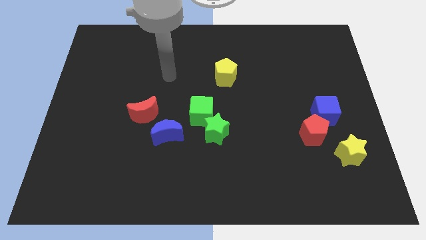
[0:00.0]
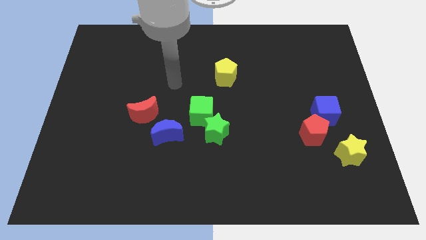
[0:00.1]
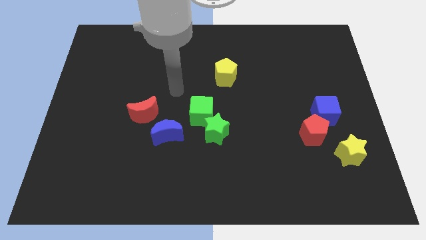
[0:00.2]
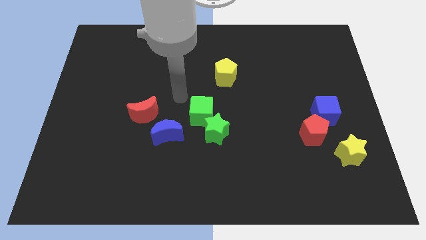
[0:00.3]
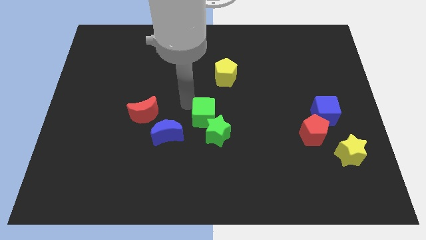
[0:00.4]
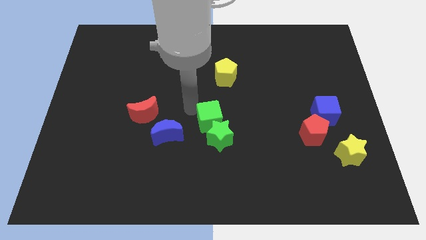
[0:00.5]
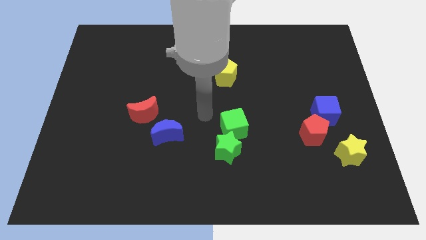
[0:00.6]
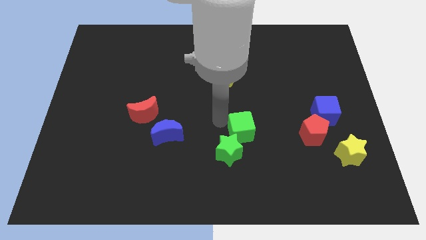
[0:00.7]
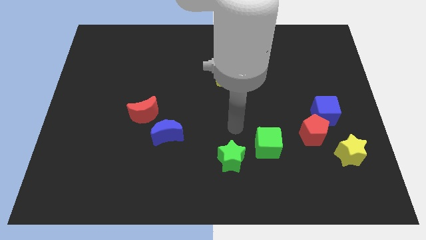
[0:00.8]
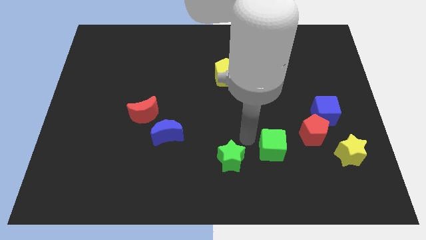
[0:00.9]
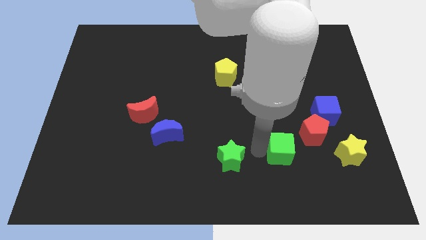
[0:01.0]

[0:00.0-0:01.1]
separate the green star from the green cube

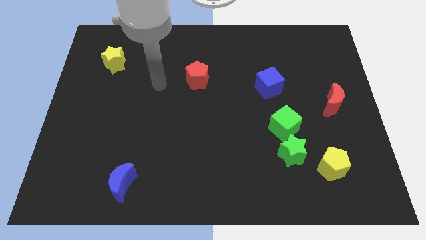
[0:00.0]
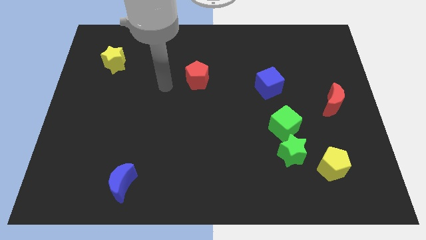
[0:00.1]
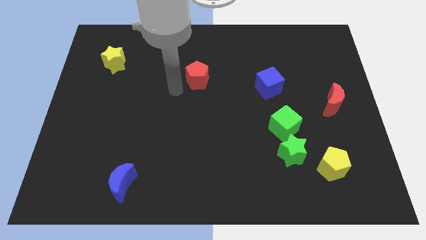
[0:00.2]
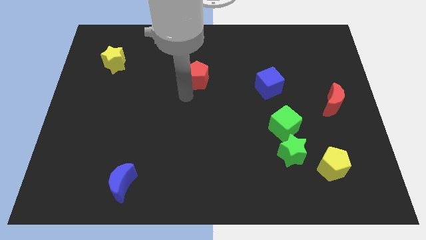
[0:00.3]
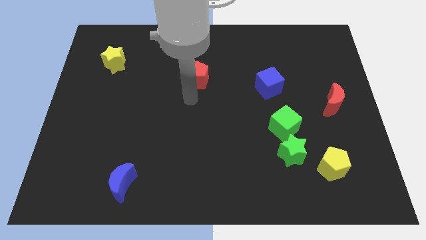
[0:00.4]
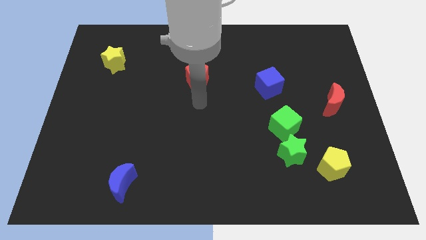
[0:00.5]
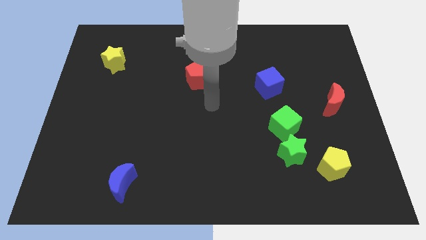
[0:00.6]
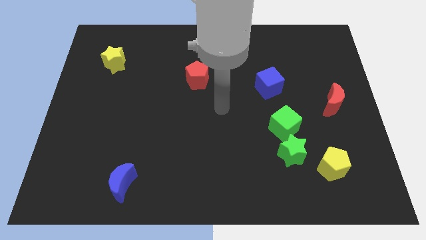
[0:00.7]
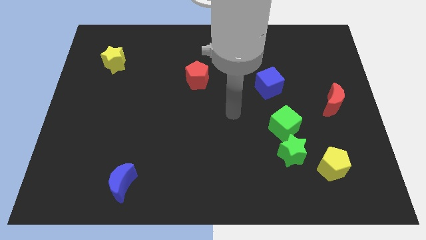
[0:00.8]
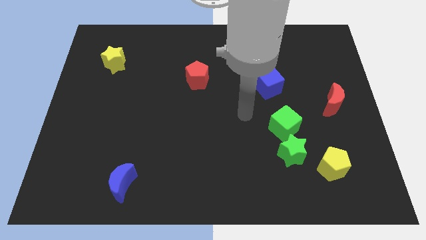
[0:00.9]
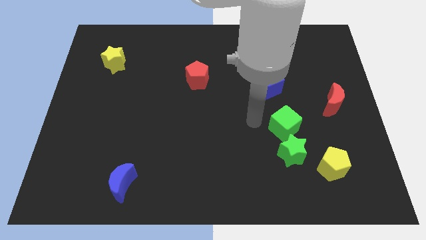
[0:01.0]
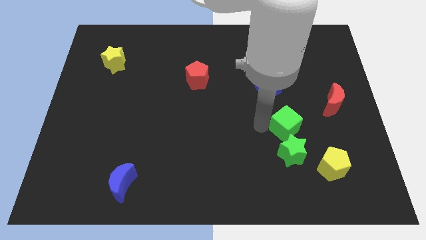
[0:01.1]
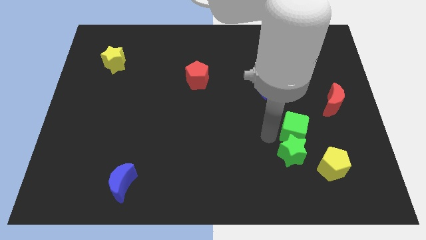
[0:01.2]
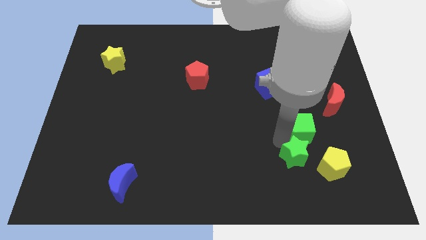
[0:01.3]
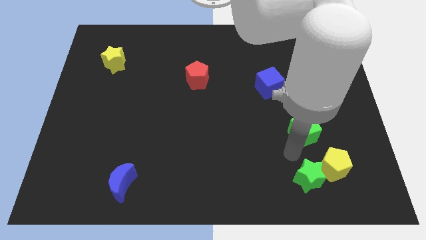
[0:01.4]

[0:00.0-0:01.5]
pull the green cube apart from the green star

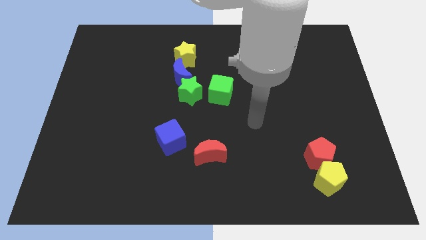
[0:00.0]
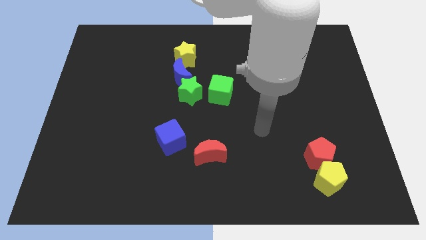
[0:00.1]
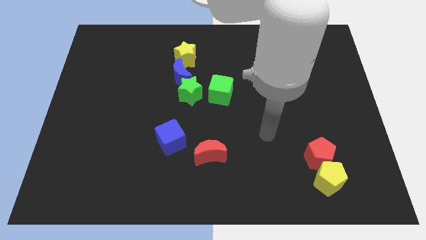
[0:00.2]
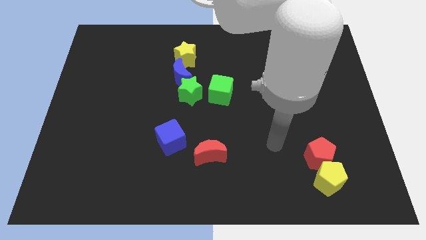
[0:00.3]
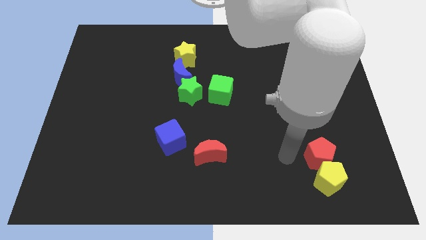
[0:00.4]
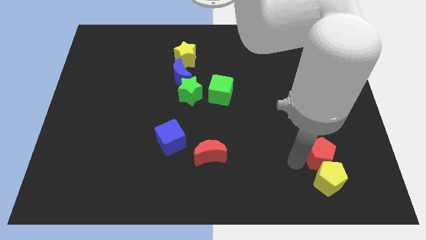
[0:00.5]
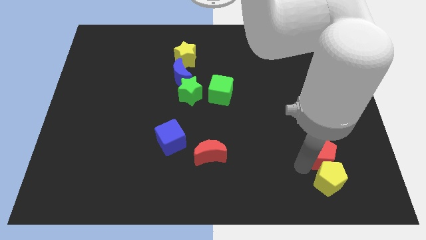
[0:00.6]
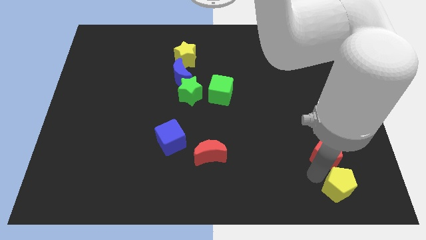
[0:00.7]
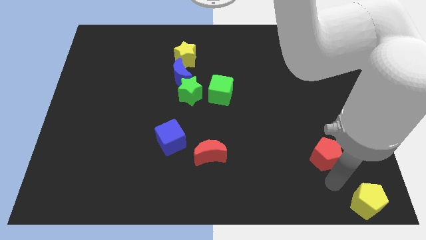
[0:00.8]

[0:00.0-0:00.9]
move the red pentagon away from the yellow pentagon

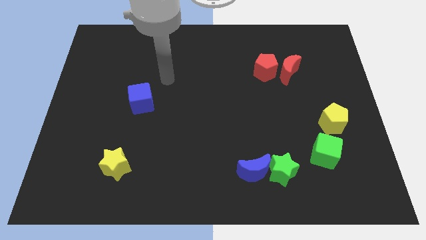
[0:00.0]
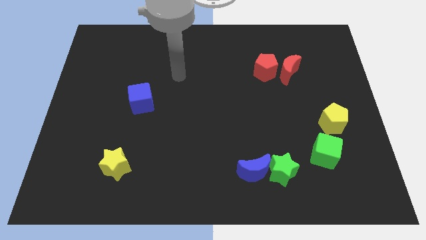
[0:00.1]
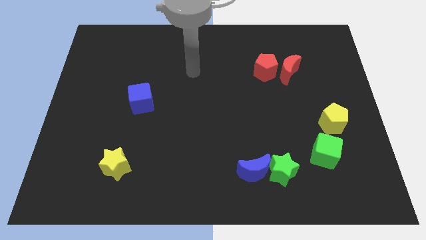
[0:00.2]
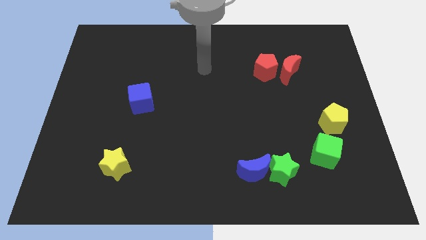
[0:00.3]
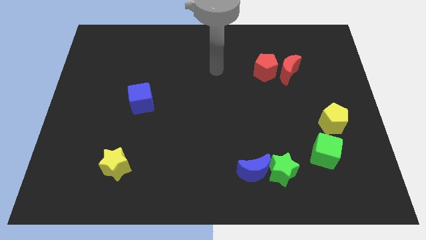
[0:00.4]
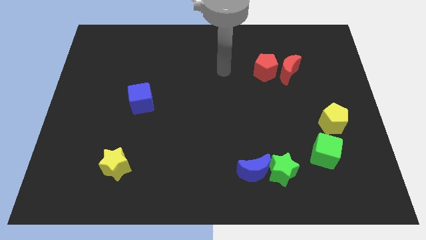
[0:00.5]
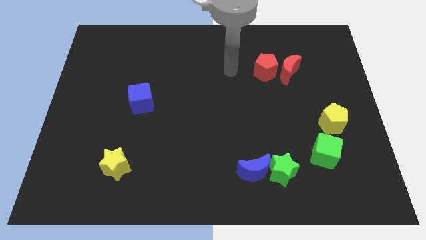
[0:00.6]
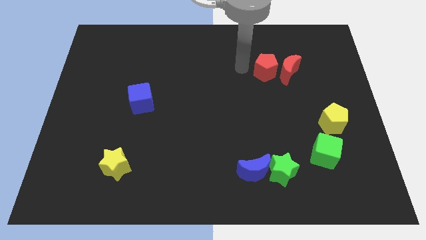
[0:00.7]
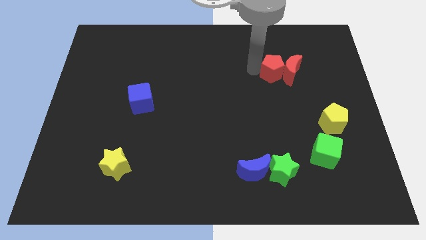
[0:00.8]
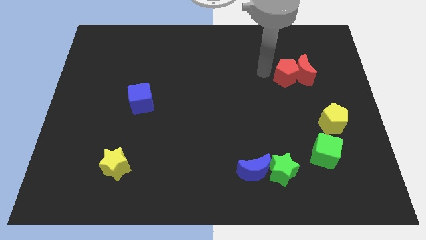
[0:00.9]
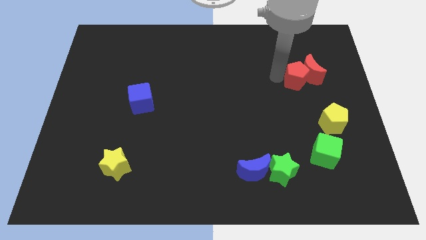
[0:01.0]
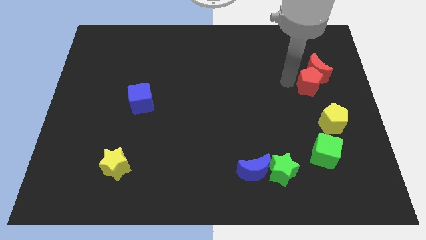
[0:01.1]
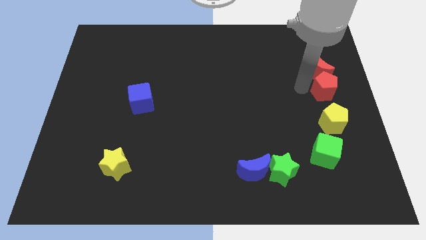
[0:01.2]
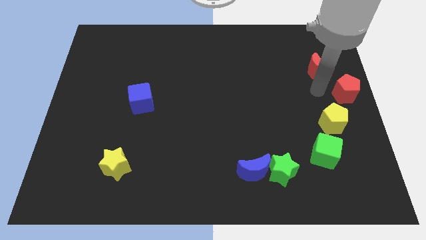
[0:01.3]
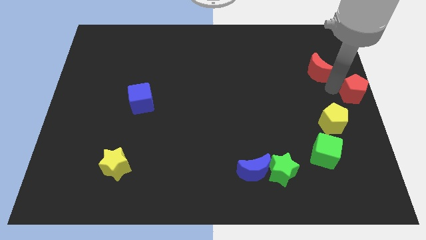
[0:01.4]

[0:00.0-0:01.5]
move the red moon away from the red pentagon

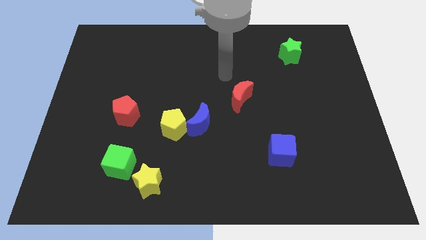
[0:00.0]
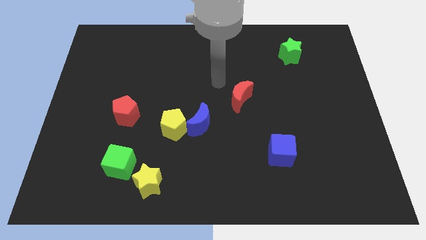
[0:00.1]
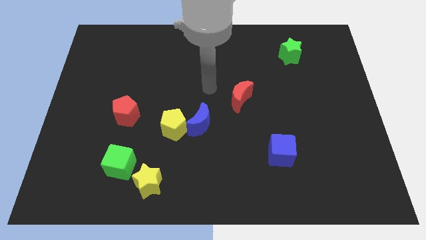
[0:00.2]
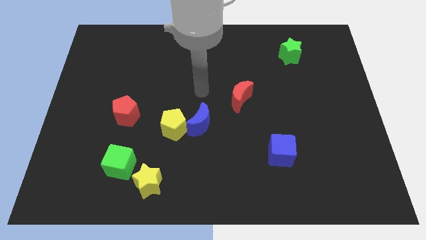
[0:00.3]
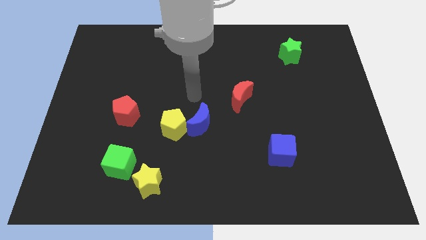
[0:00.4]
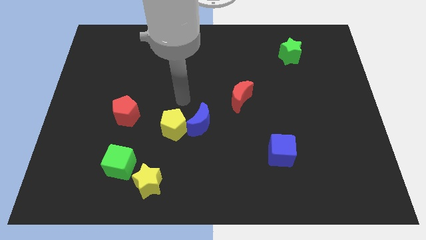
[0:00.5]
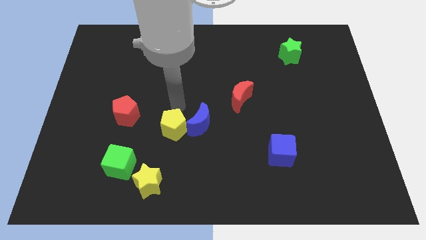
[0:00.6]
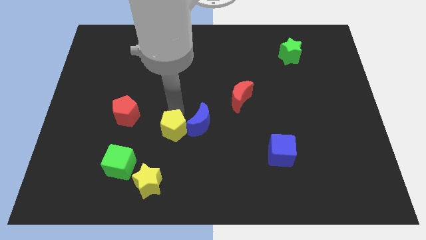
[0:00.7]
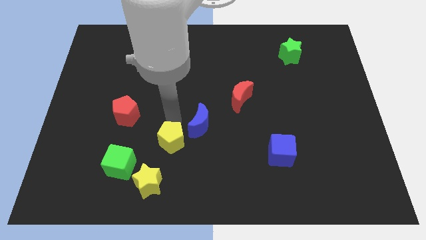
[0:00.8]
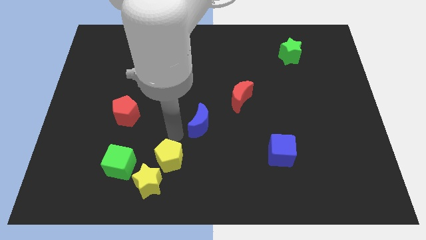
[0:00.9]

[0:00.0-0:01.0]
move the blue moon away from the yellow pentagon

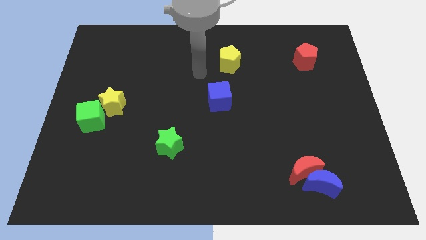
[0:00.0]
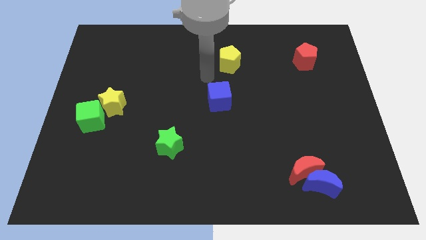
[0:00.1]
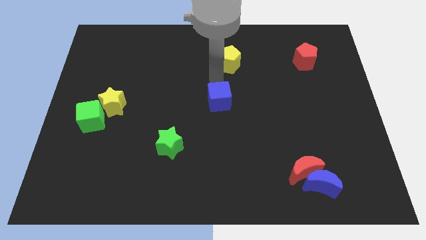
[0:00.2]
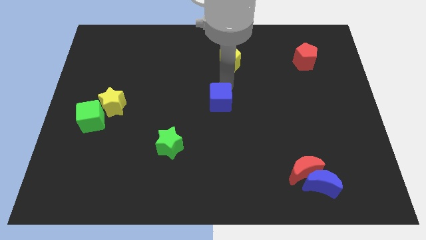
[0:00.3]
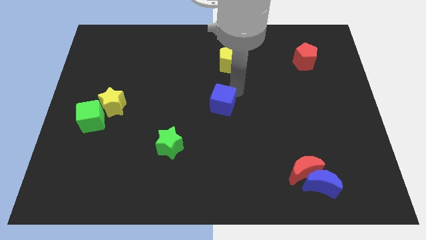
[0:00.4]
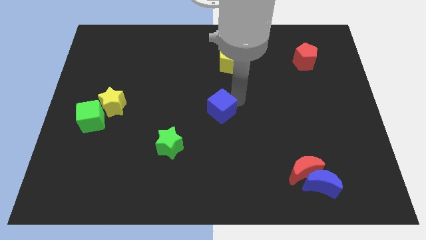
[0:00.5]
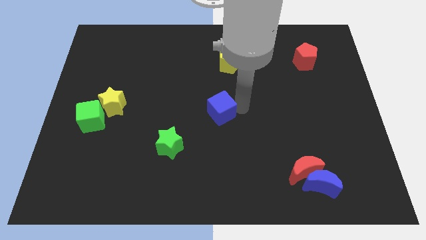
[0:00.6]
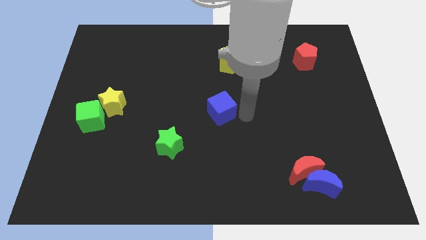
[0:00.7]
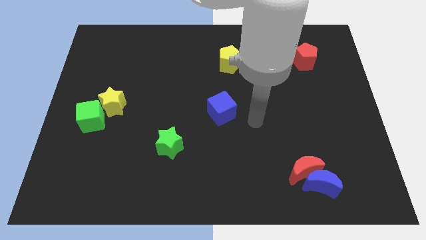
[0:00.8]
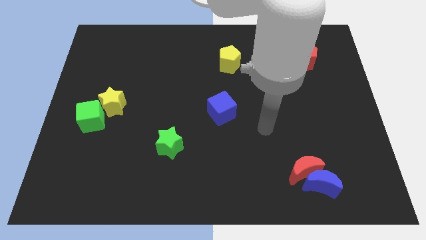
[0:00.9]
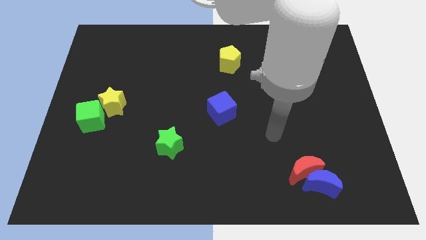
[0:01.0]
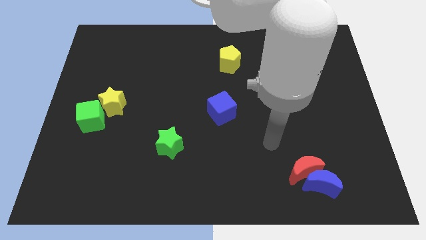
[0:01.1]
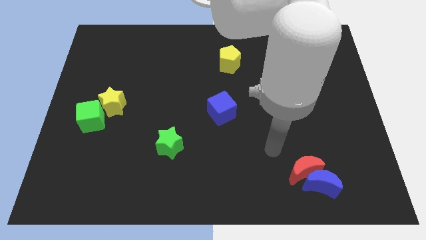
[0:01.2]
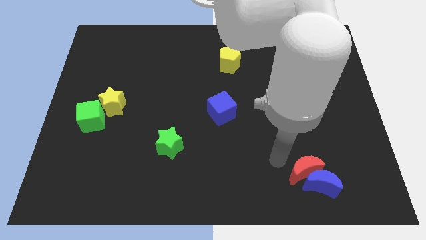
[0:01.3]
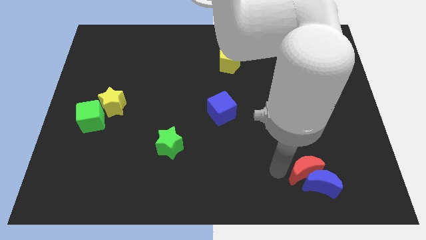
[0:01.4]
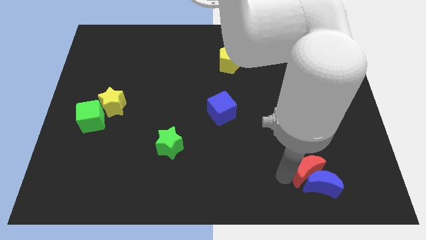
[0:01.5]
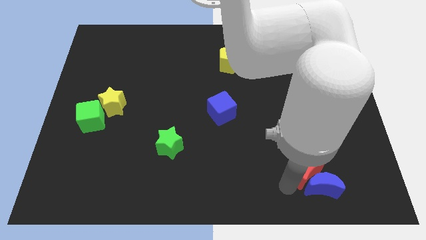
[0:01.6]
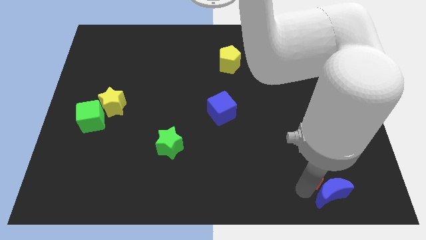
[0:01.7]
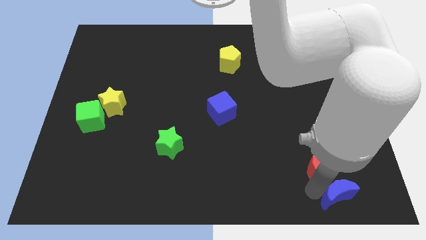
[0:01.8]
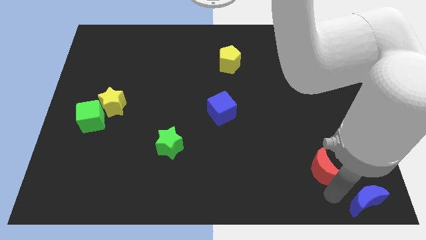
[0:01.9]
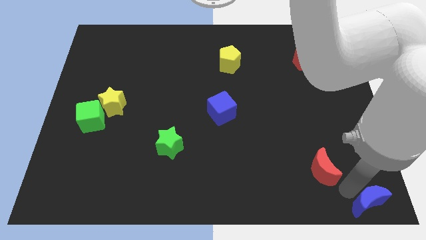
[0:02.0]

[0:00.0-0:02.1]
pull the red moon apart from the blue moon

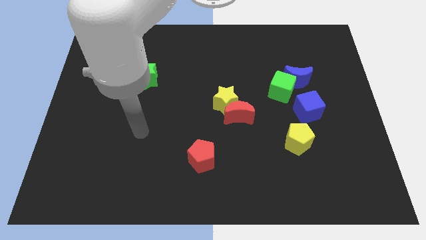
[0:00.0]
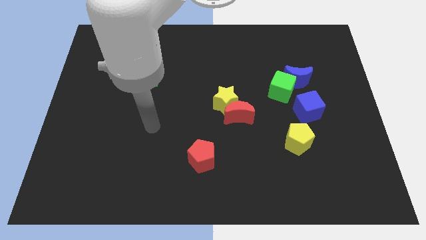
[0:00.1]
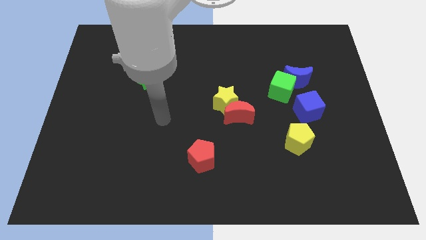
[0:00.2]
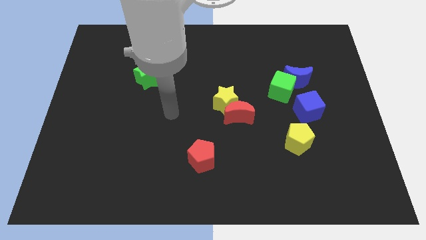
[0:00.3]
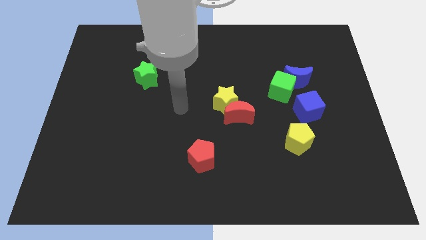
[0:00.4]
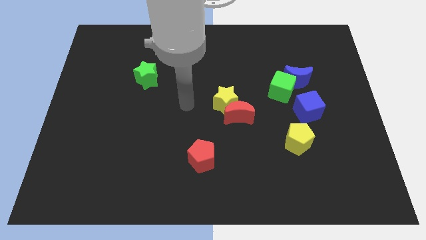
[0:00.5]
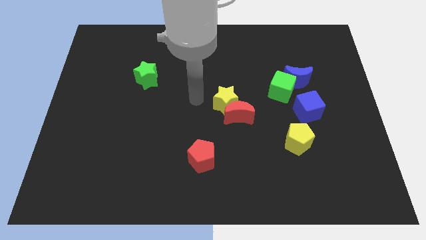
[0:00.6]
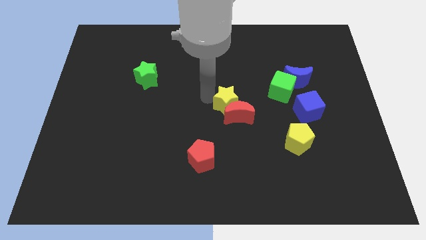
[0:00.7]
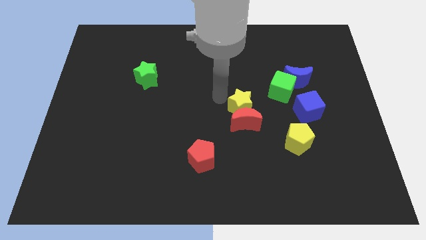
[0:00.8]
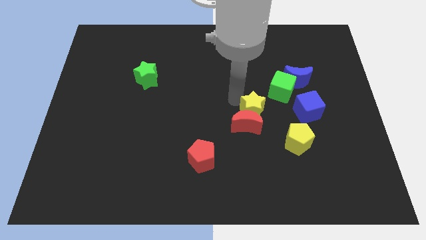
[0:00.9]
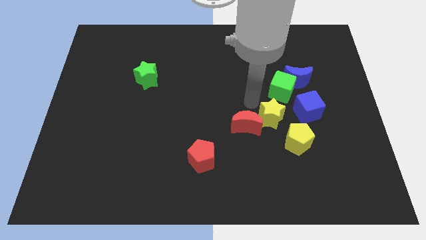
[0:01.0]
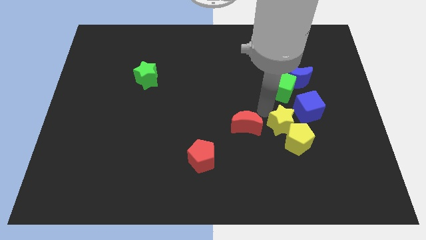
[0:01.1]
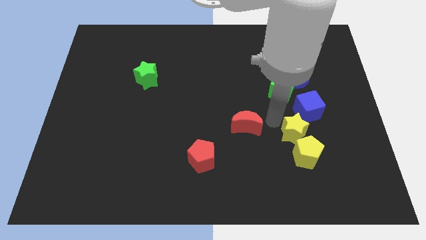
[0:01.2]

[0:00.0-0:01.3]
move the red moon away from the yellow star

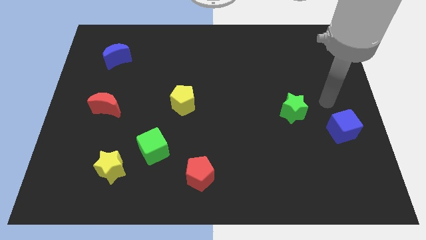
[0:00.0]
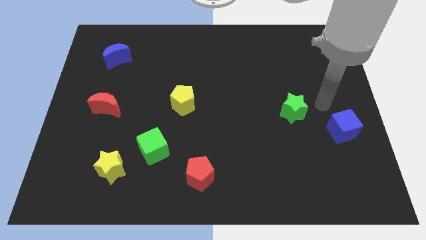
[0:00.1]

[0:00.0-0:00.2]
move the green cube away from the yellow star
